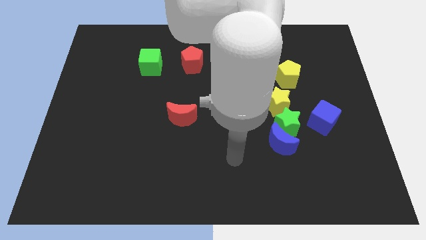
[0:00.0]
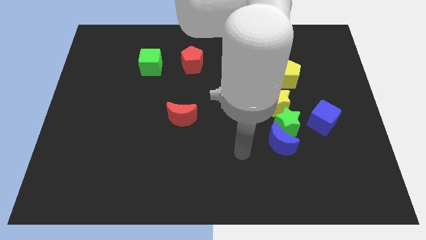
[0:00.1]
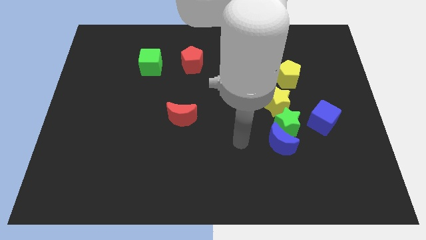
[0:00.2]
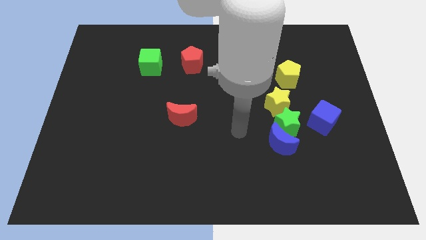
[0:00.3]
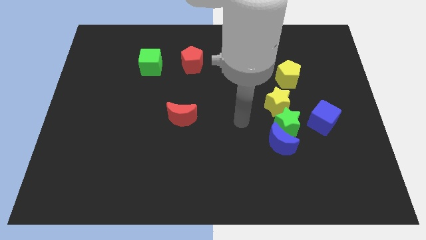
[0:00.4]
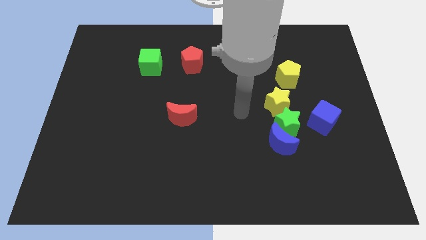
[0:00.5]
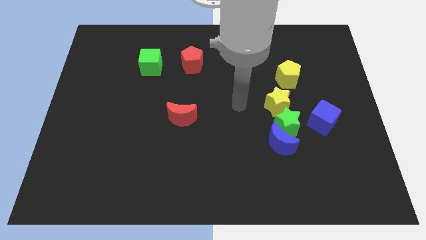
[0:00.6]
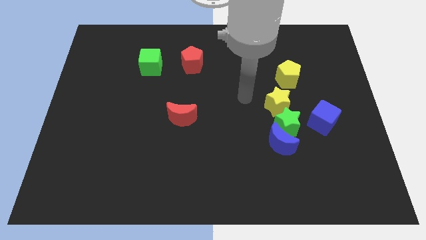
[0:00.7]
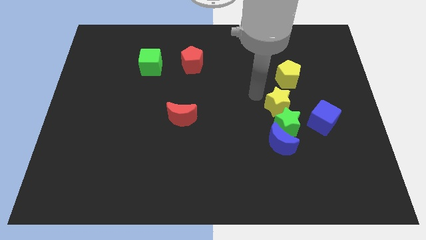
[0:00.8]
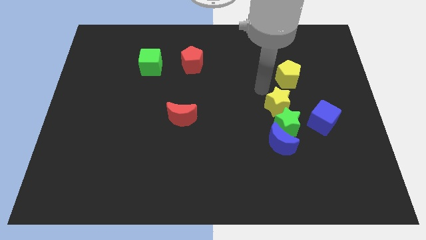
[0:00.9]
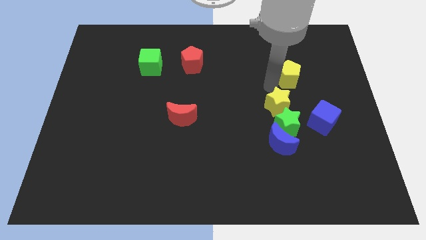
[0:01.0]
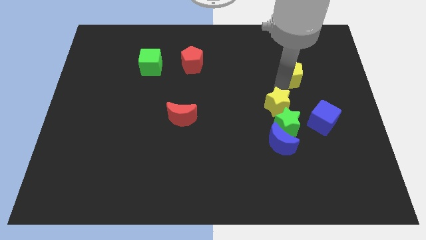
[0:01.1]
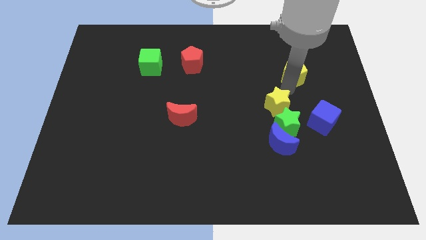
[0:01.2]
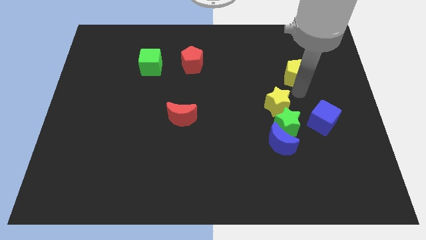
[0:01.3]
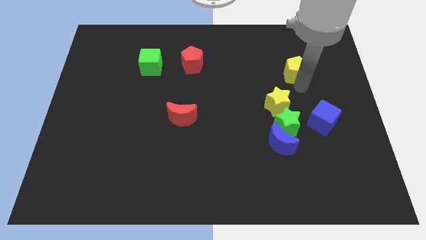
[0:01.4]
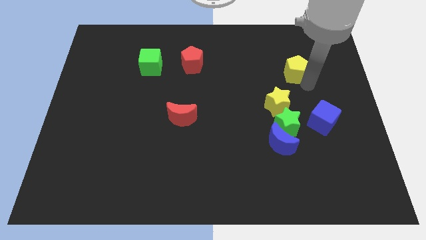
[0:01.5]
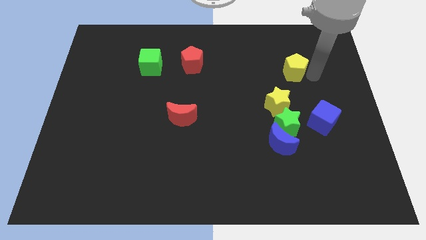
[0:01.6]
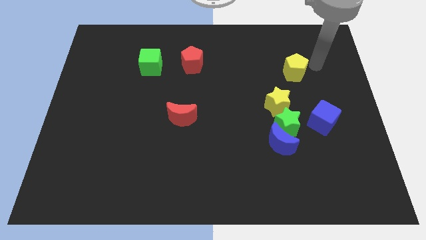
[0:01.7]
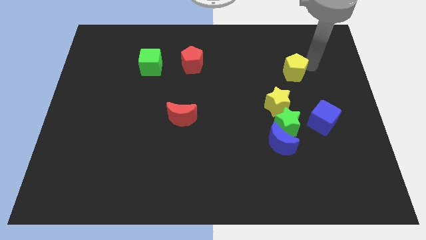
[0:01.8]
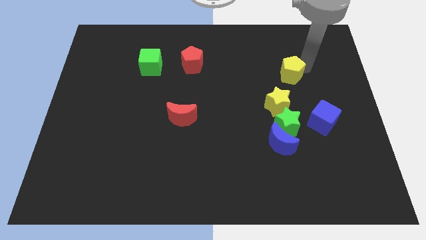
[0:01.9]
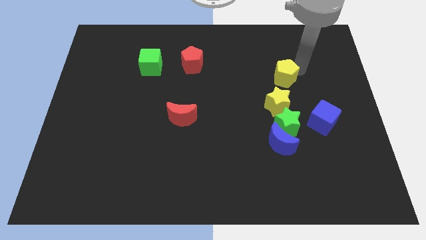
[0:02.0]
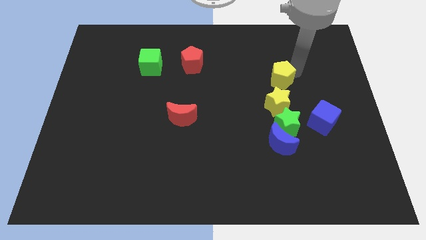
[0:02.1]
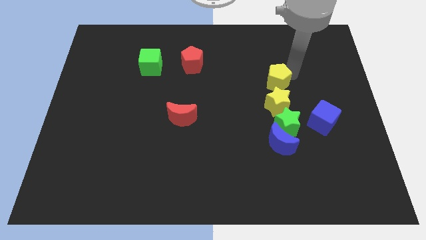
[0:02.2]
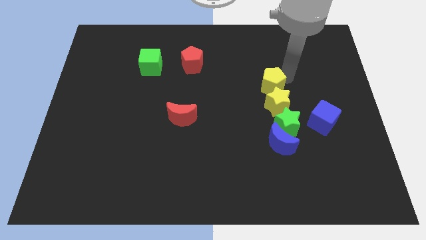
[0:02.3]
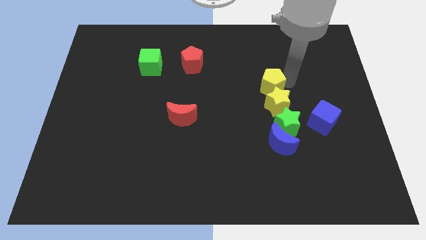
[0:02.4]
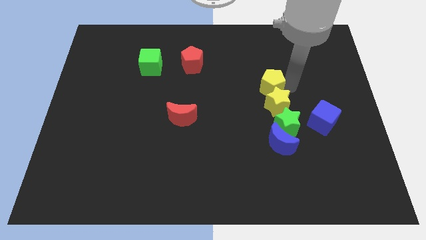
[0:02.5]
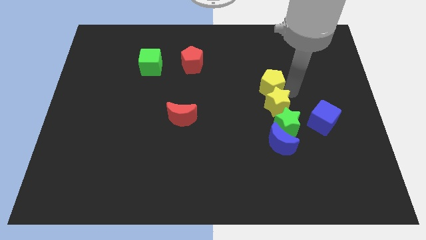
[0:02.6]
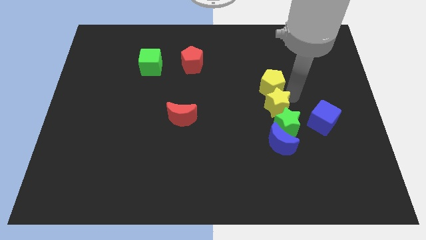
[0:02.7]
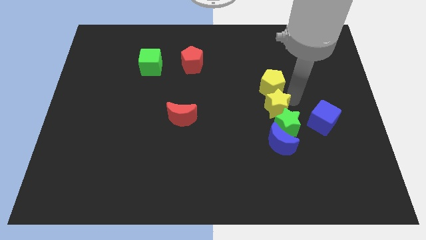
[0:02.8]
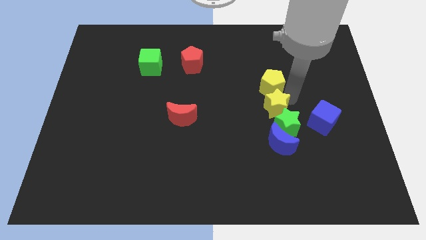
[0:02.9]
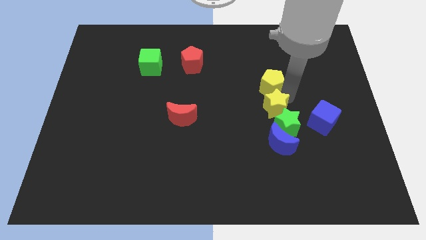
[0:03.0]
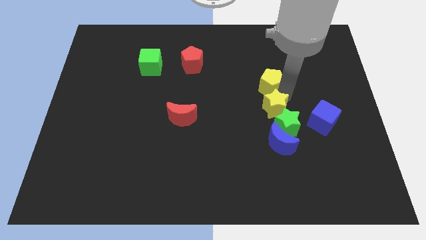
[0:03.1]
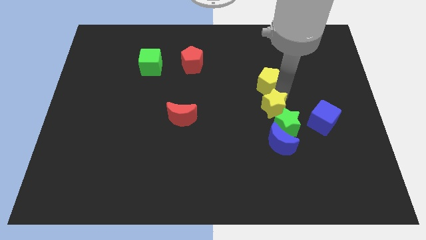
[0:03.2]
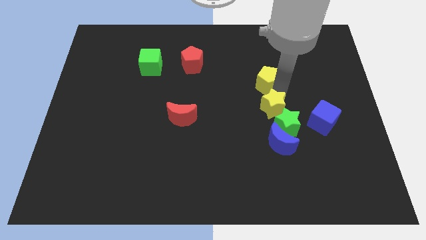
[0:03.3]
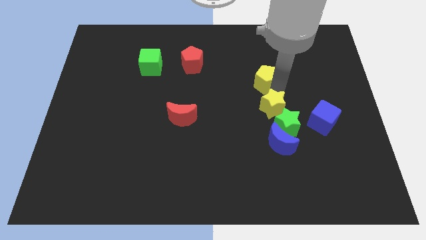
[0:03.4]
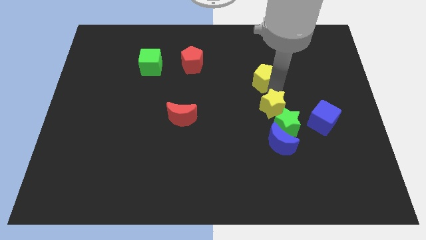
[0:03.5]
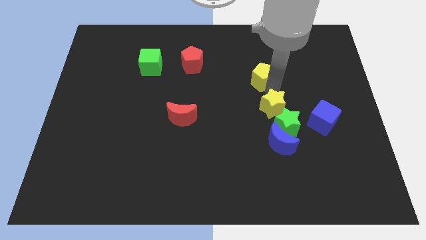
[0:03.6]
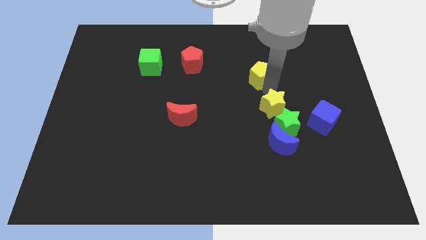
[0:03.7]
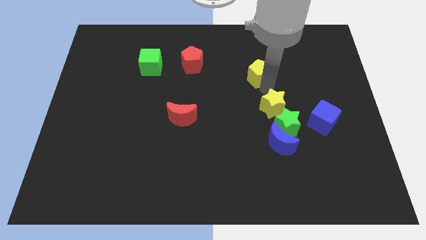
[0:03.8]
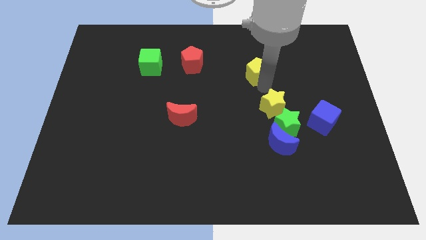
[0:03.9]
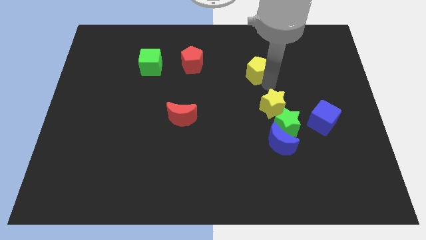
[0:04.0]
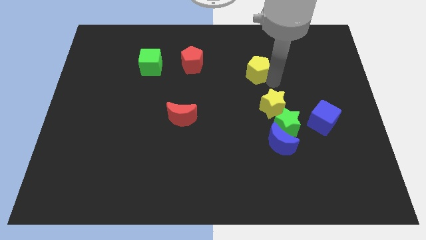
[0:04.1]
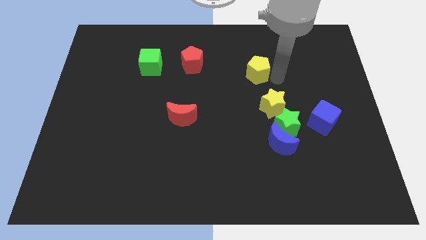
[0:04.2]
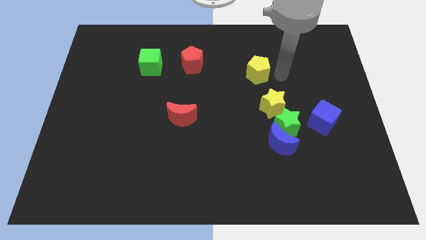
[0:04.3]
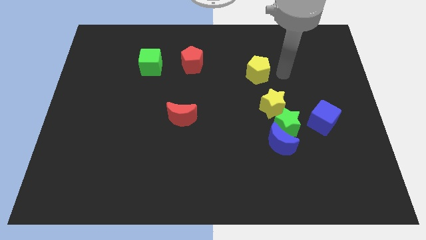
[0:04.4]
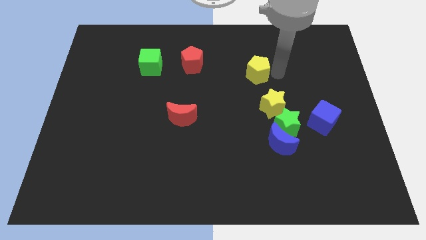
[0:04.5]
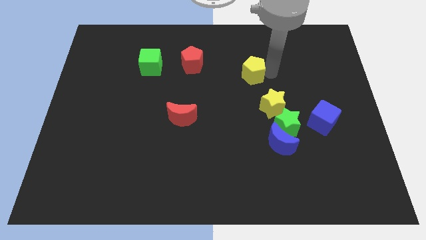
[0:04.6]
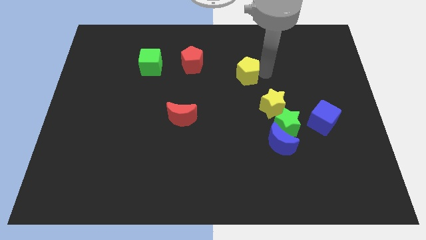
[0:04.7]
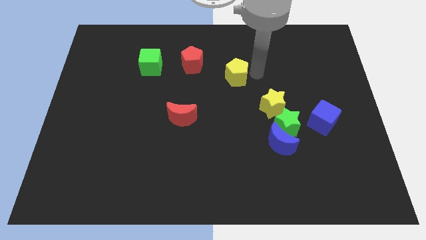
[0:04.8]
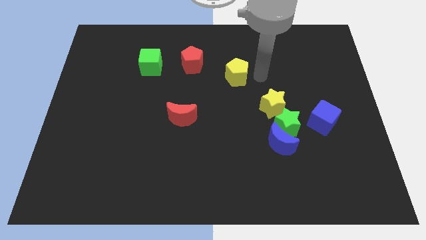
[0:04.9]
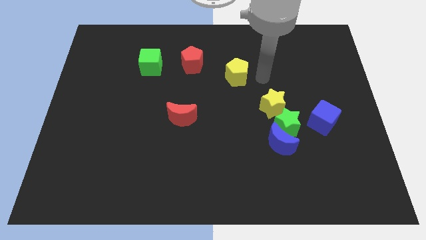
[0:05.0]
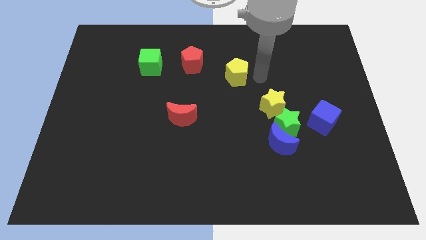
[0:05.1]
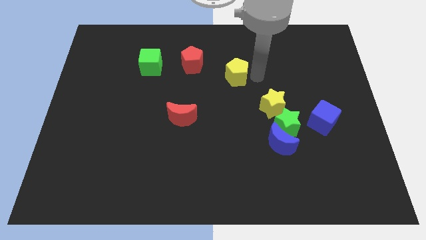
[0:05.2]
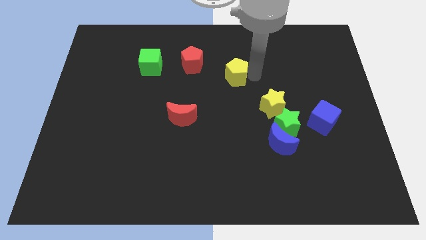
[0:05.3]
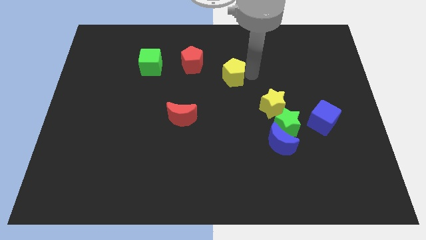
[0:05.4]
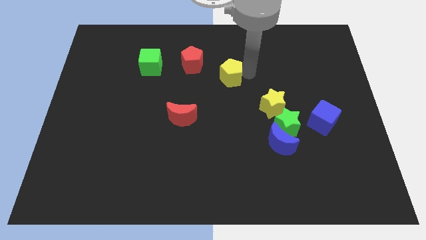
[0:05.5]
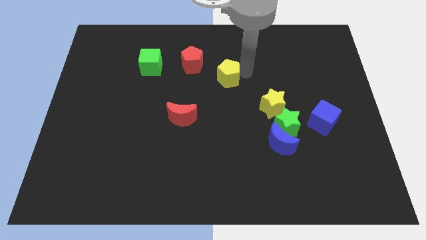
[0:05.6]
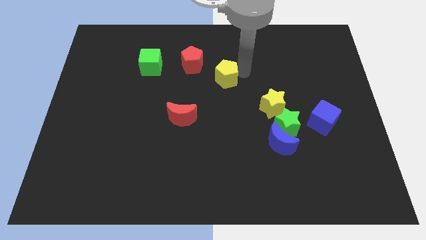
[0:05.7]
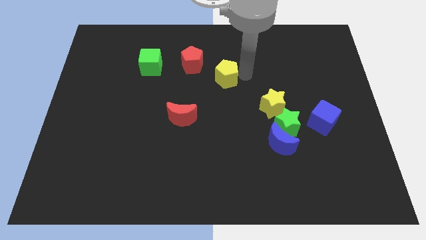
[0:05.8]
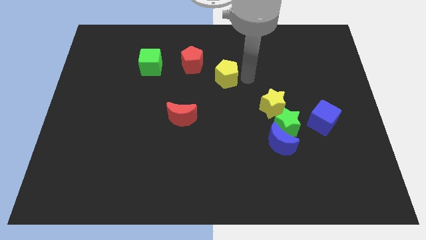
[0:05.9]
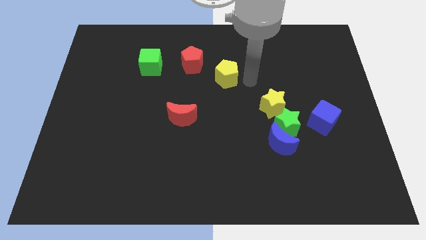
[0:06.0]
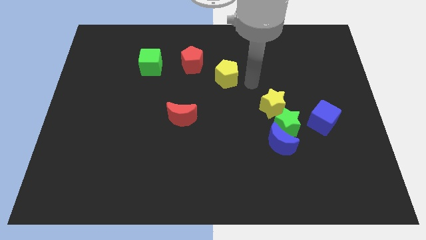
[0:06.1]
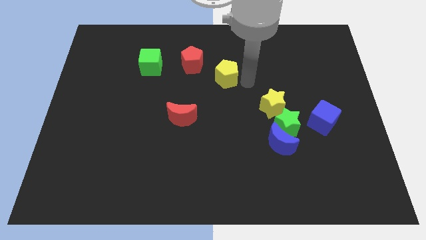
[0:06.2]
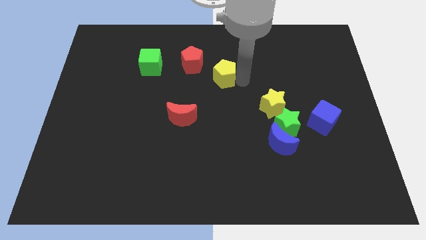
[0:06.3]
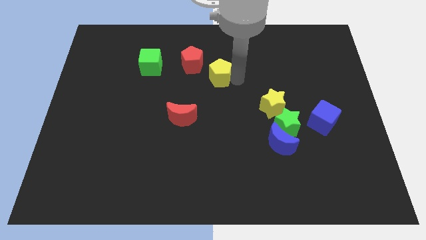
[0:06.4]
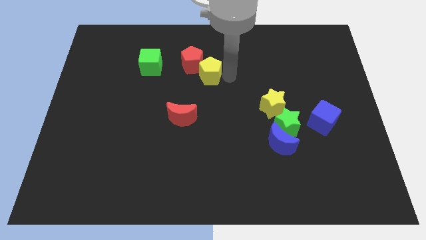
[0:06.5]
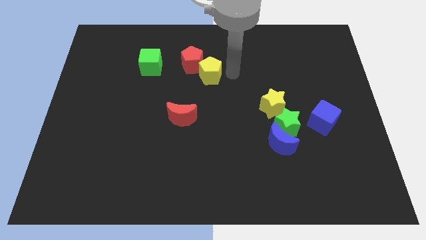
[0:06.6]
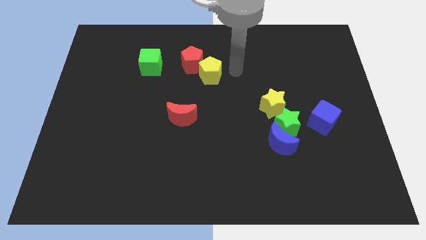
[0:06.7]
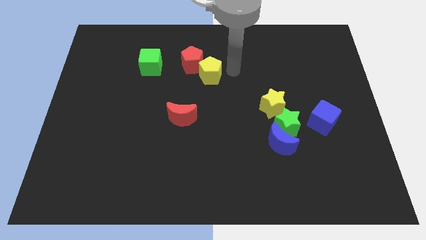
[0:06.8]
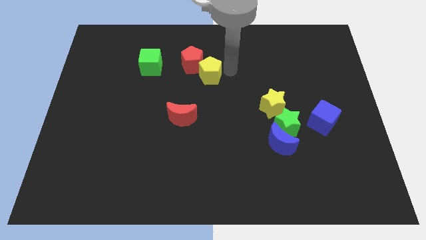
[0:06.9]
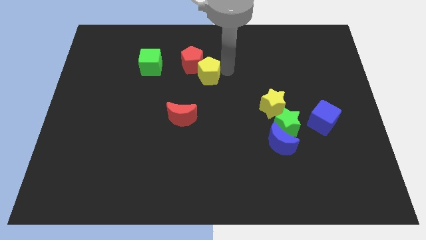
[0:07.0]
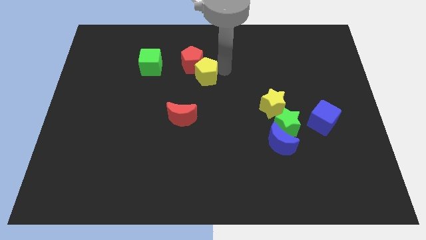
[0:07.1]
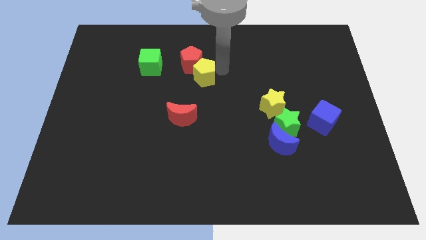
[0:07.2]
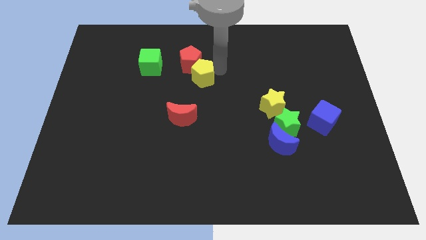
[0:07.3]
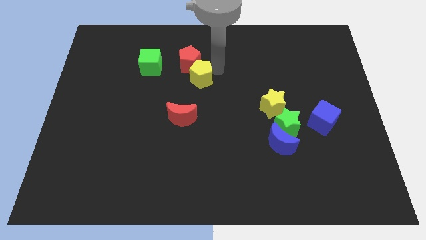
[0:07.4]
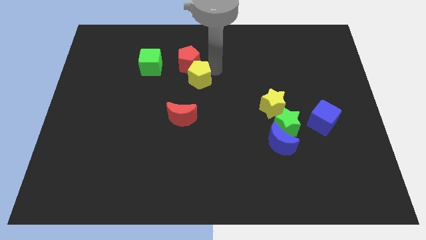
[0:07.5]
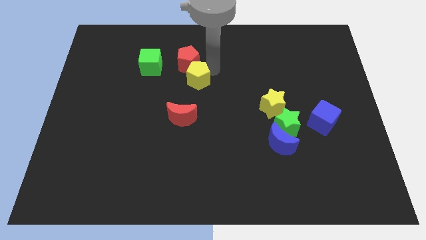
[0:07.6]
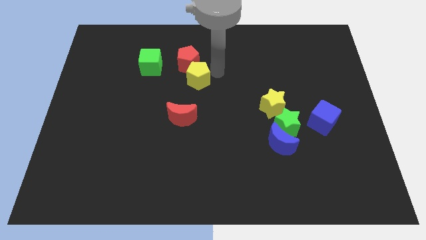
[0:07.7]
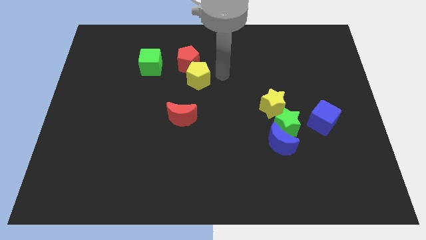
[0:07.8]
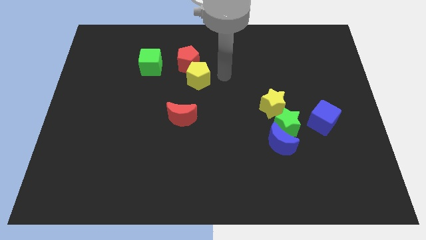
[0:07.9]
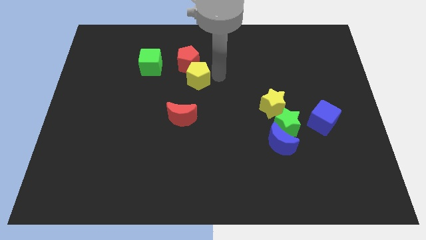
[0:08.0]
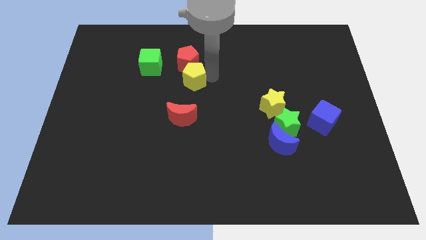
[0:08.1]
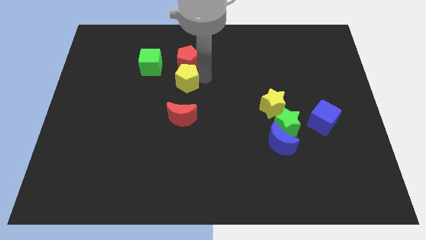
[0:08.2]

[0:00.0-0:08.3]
slide the yellow pentagon diagonally down and to the right of the green cube
